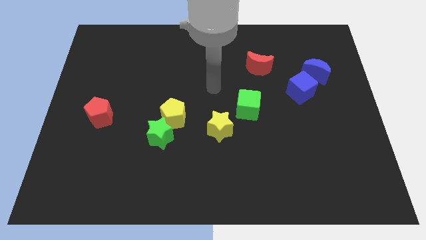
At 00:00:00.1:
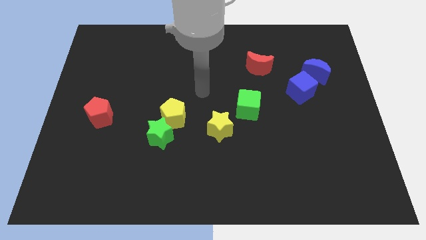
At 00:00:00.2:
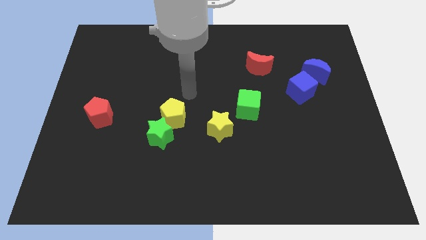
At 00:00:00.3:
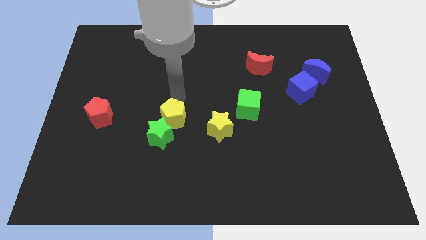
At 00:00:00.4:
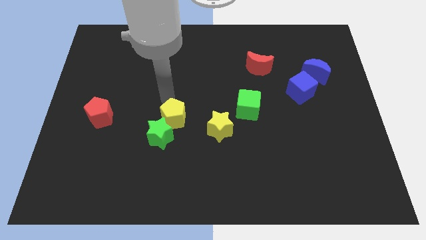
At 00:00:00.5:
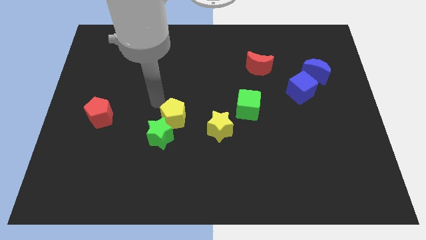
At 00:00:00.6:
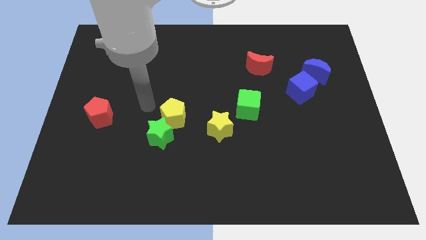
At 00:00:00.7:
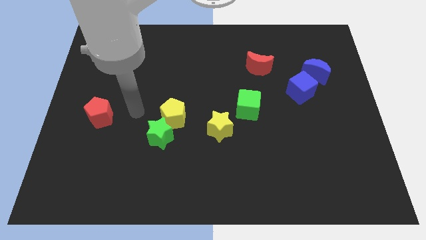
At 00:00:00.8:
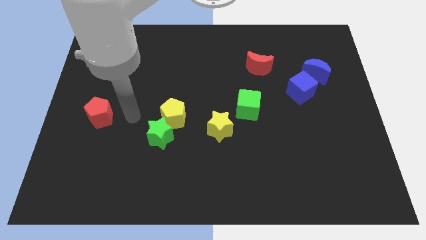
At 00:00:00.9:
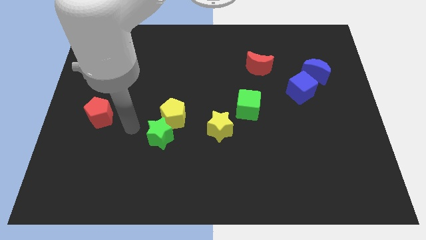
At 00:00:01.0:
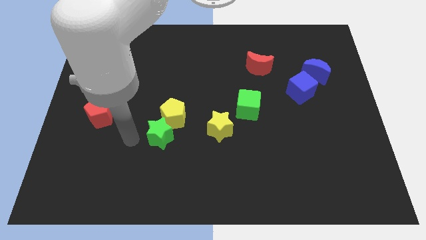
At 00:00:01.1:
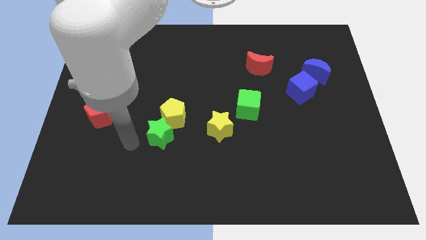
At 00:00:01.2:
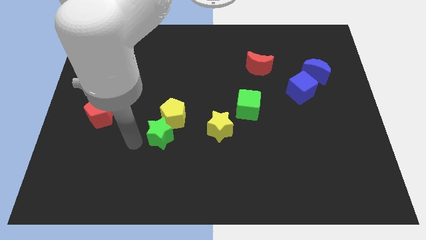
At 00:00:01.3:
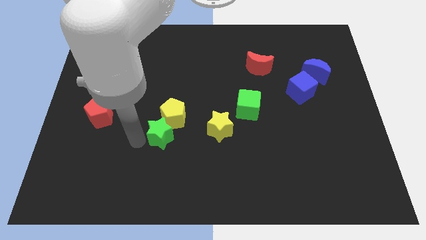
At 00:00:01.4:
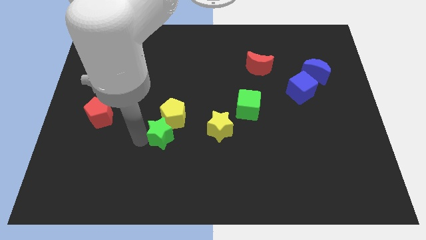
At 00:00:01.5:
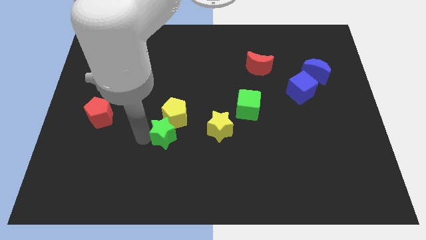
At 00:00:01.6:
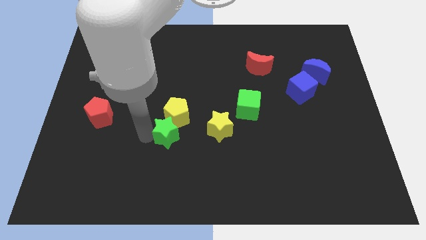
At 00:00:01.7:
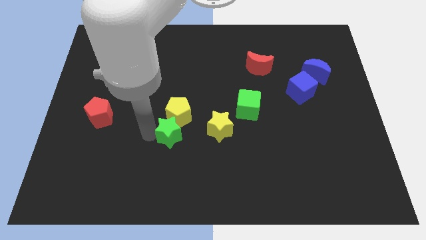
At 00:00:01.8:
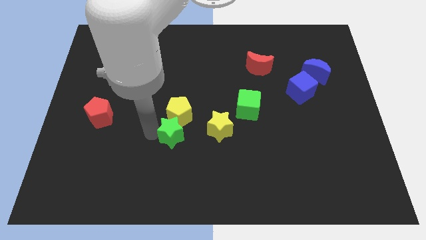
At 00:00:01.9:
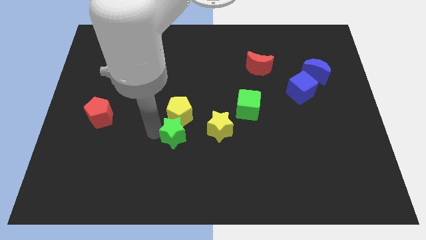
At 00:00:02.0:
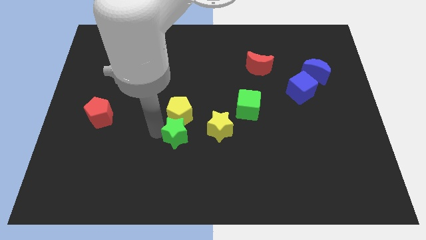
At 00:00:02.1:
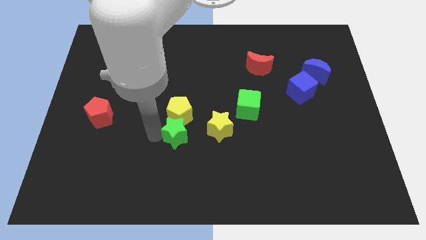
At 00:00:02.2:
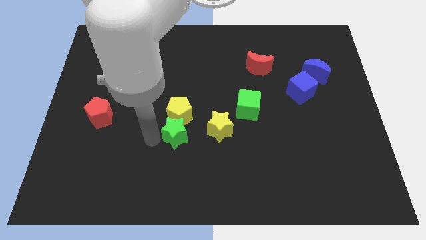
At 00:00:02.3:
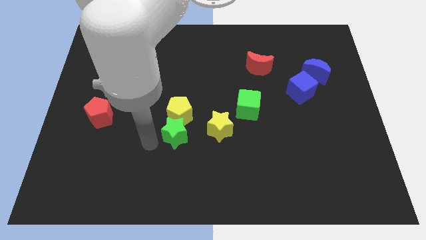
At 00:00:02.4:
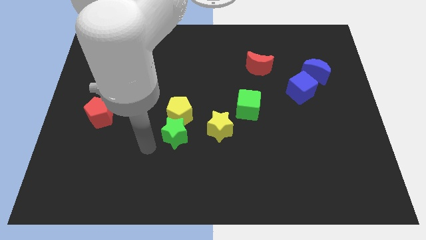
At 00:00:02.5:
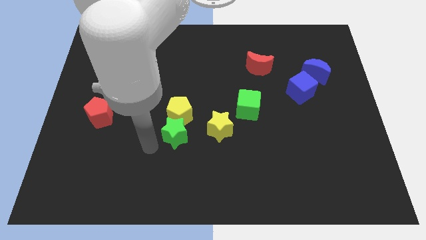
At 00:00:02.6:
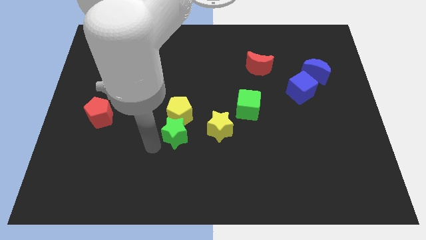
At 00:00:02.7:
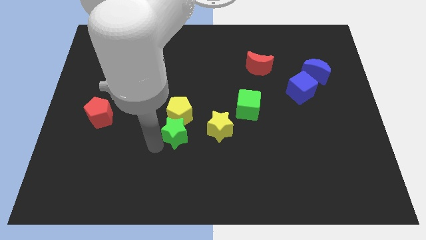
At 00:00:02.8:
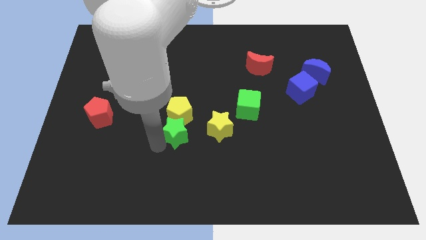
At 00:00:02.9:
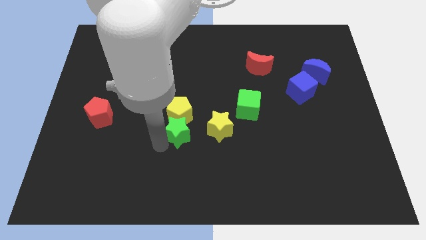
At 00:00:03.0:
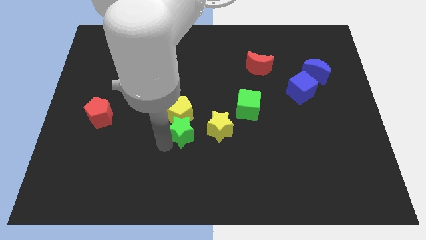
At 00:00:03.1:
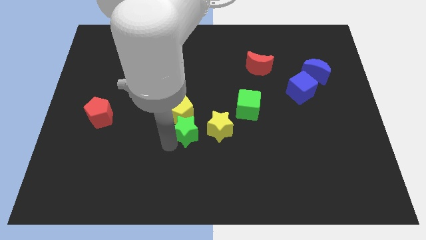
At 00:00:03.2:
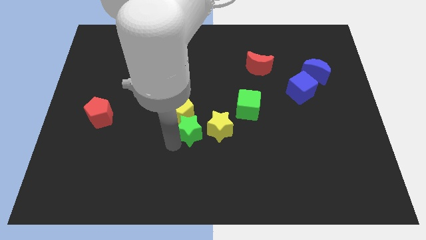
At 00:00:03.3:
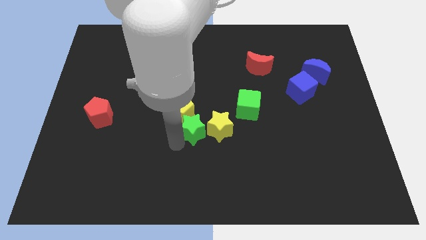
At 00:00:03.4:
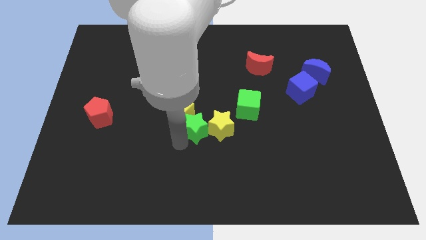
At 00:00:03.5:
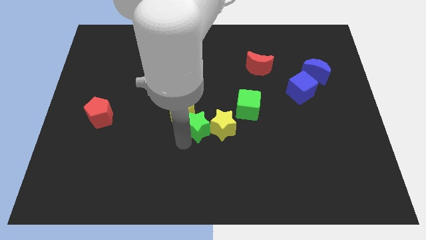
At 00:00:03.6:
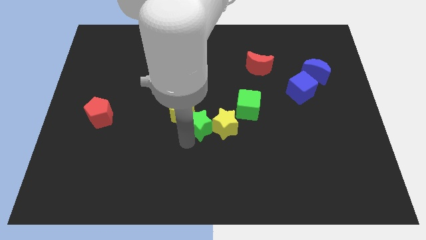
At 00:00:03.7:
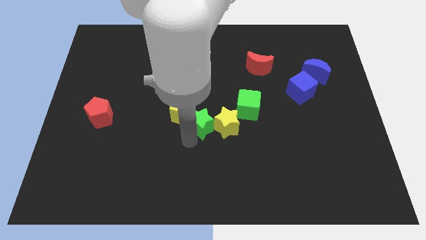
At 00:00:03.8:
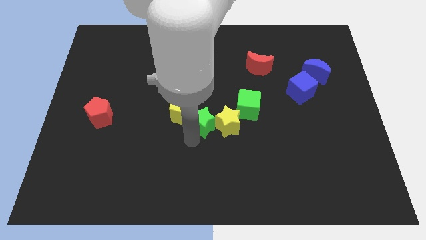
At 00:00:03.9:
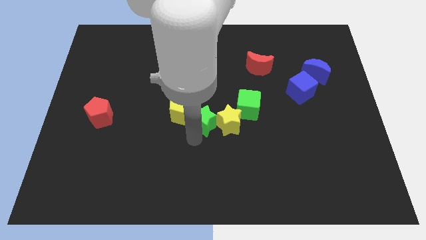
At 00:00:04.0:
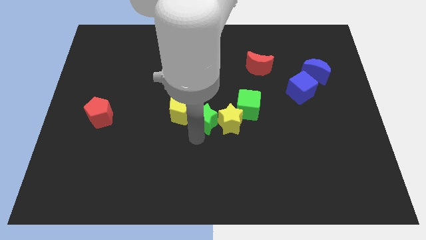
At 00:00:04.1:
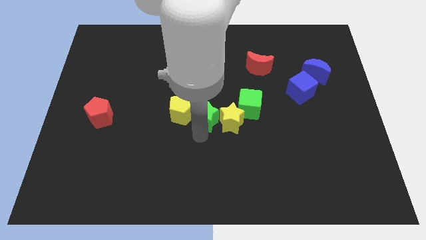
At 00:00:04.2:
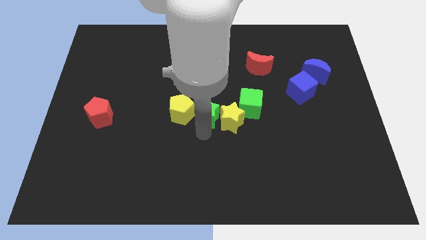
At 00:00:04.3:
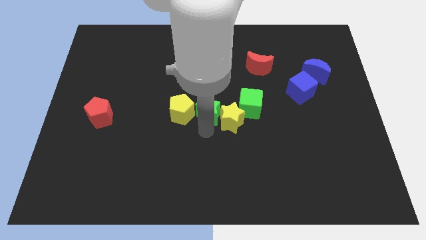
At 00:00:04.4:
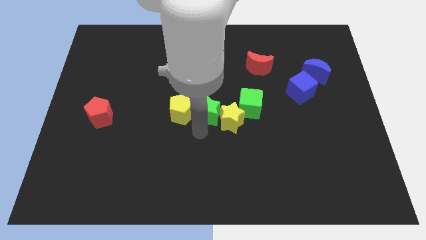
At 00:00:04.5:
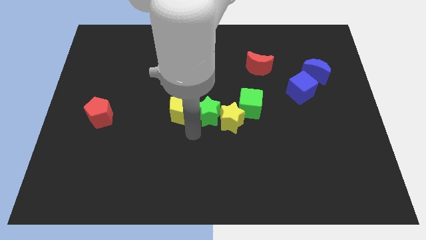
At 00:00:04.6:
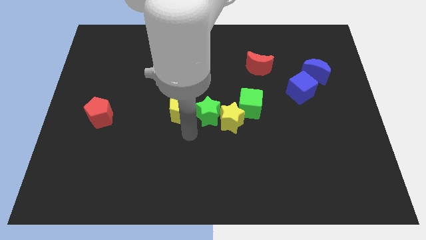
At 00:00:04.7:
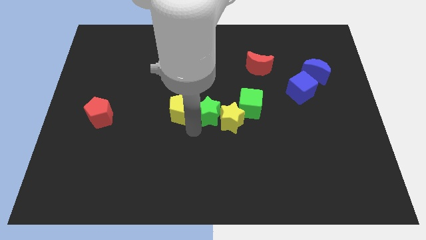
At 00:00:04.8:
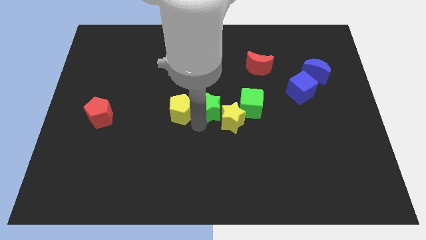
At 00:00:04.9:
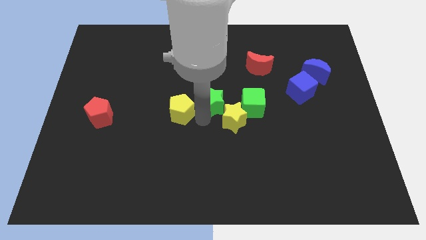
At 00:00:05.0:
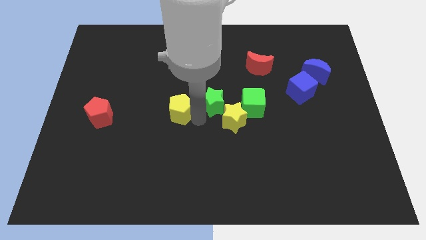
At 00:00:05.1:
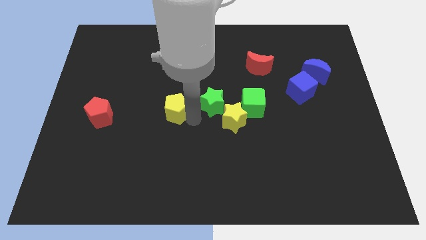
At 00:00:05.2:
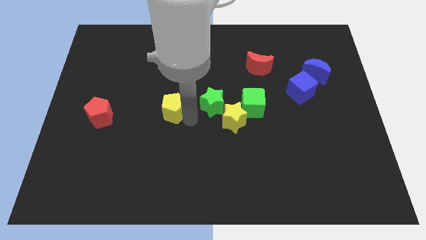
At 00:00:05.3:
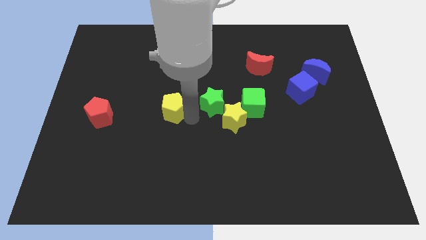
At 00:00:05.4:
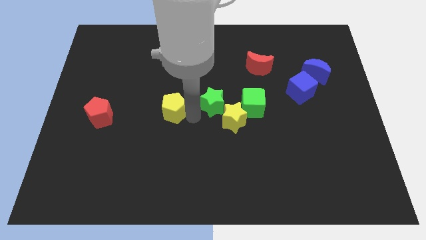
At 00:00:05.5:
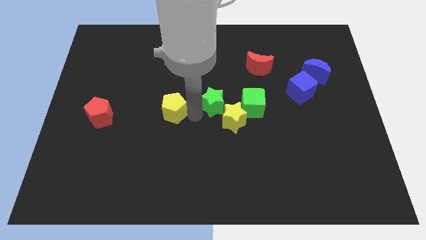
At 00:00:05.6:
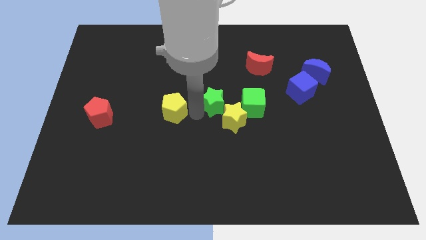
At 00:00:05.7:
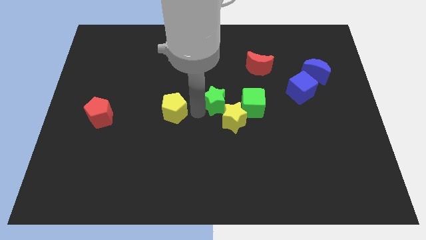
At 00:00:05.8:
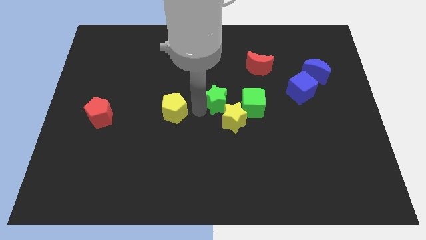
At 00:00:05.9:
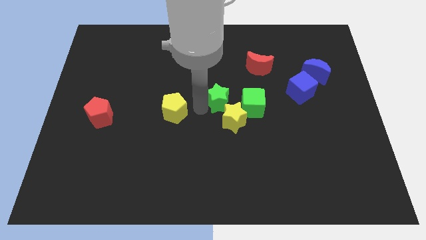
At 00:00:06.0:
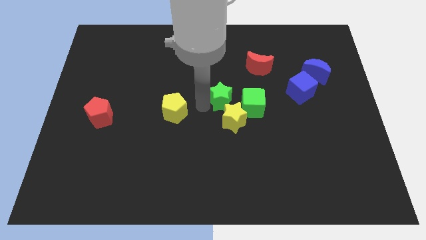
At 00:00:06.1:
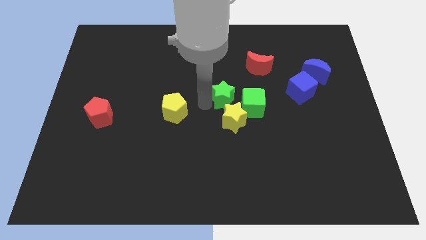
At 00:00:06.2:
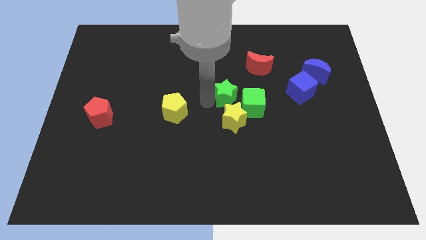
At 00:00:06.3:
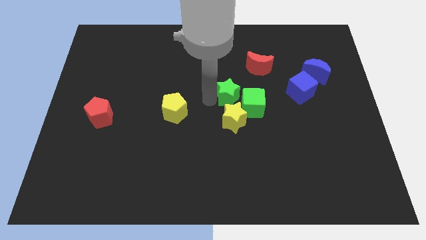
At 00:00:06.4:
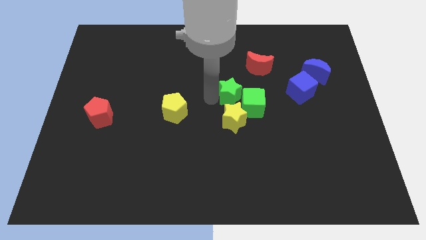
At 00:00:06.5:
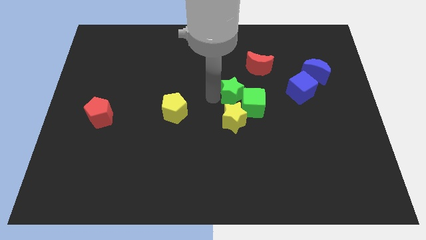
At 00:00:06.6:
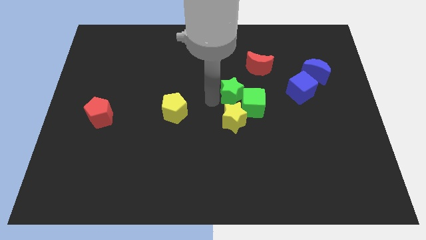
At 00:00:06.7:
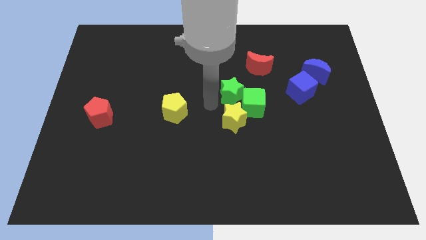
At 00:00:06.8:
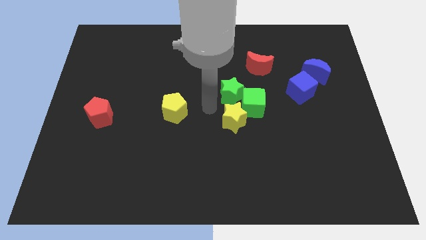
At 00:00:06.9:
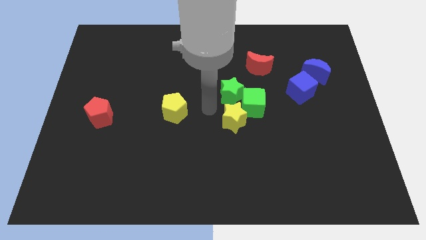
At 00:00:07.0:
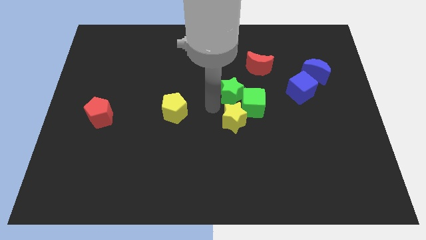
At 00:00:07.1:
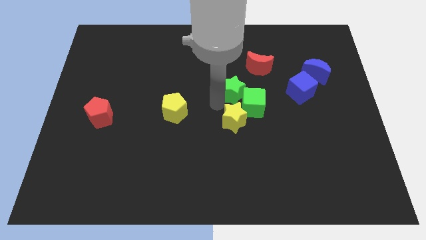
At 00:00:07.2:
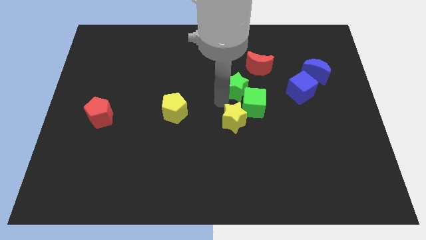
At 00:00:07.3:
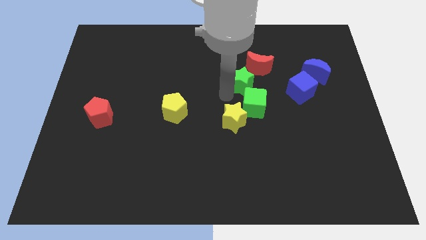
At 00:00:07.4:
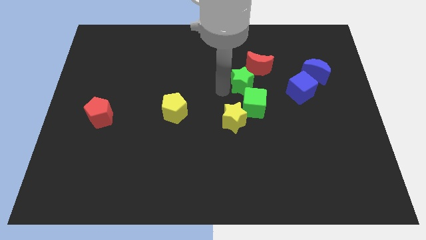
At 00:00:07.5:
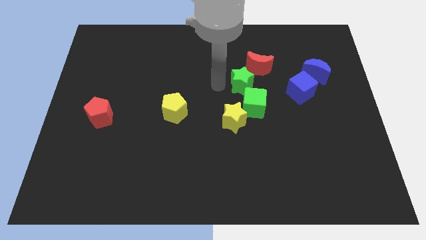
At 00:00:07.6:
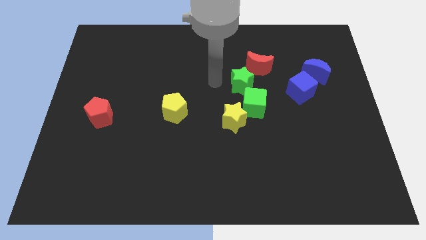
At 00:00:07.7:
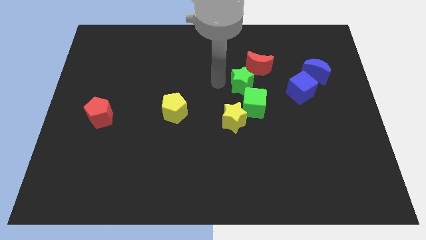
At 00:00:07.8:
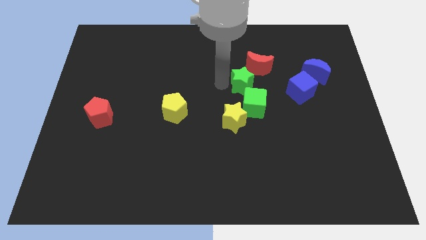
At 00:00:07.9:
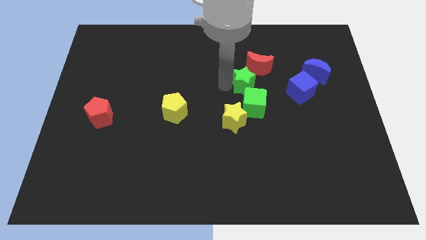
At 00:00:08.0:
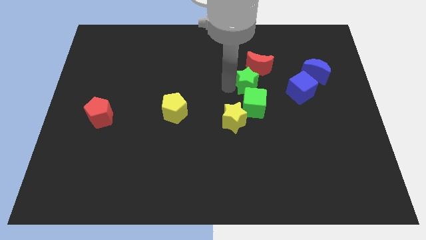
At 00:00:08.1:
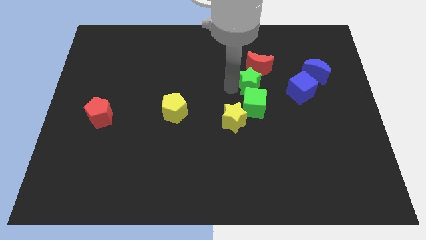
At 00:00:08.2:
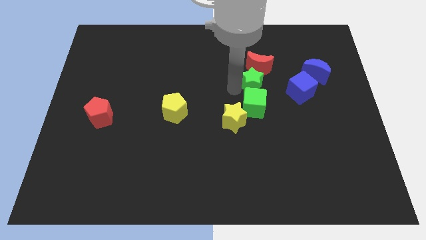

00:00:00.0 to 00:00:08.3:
move the green star to the top right of the green cube
